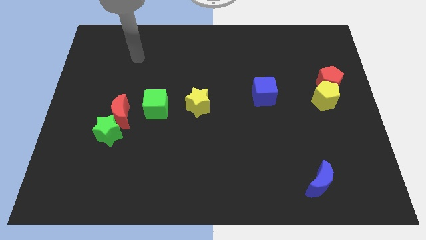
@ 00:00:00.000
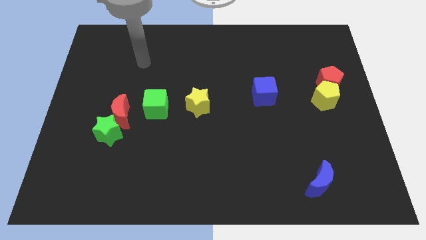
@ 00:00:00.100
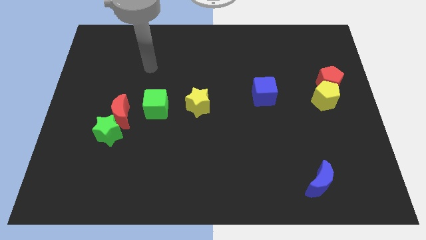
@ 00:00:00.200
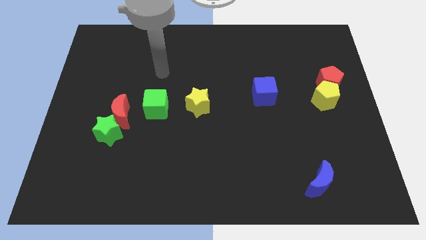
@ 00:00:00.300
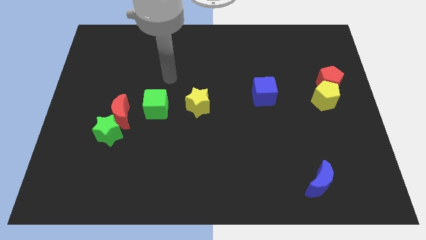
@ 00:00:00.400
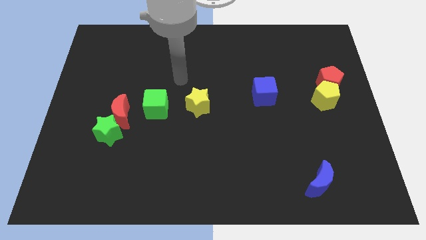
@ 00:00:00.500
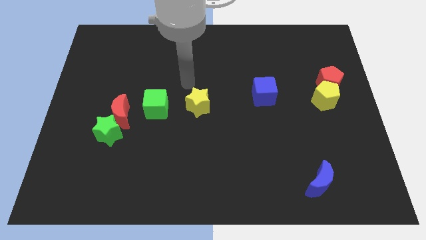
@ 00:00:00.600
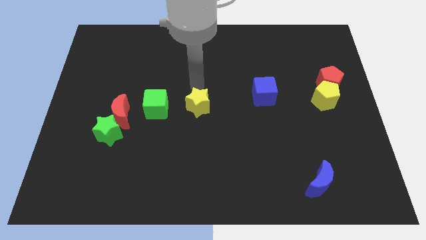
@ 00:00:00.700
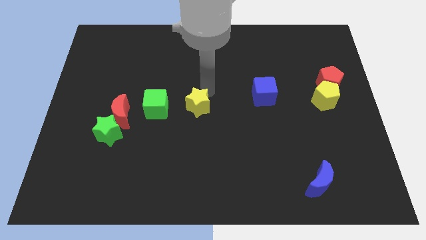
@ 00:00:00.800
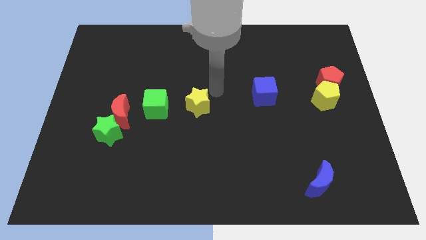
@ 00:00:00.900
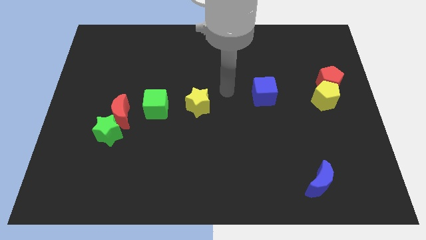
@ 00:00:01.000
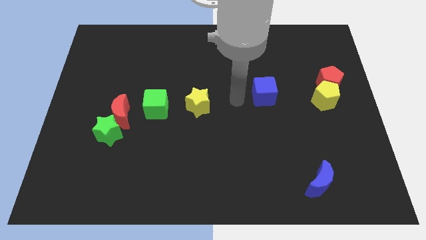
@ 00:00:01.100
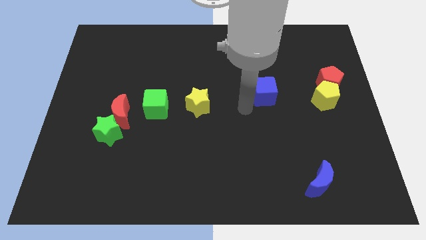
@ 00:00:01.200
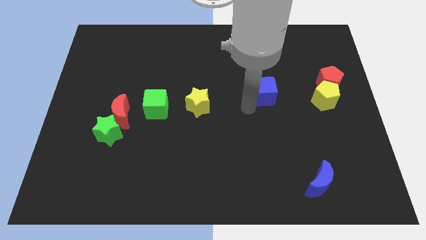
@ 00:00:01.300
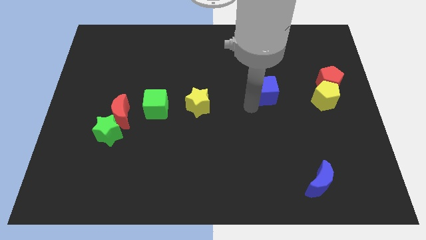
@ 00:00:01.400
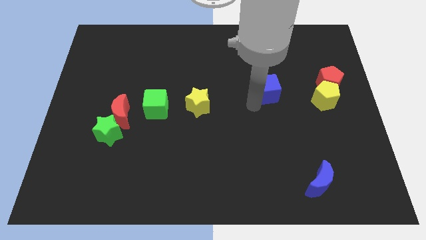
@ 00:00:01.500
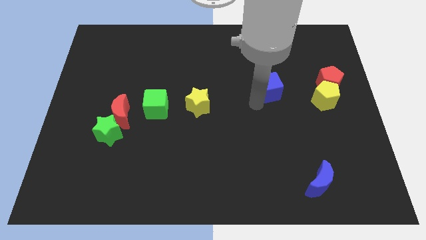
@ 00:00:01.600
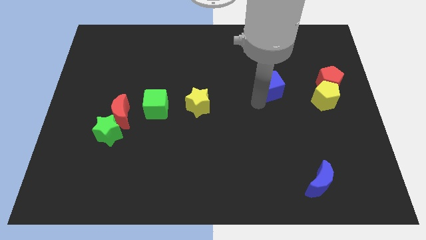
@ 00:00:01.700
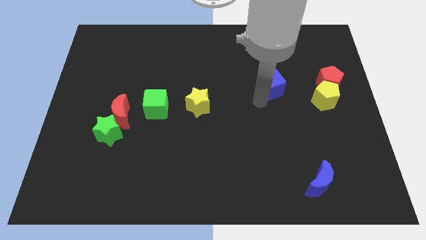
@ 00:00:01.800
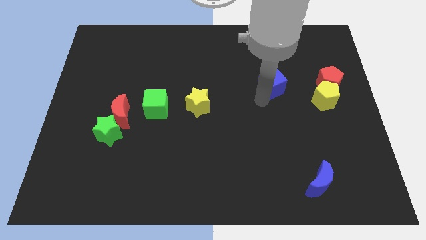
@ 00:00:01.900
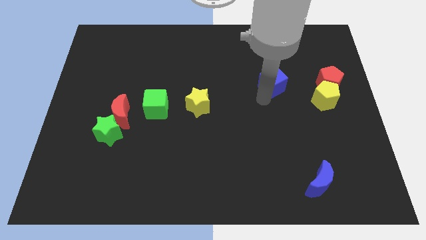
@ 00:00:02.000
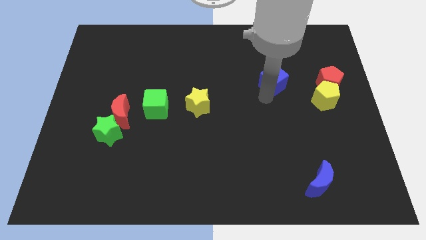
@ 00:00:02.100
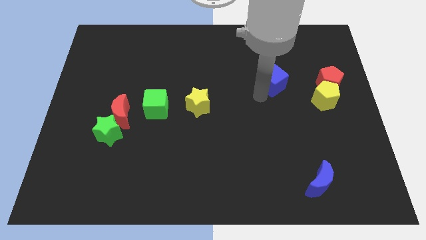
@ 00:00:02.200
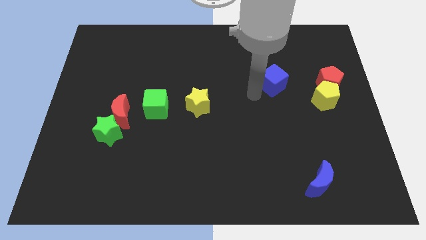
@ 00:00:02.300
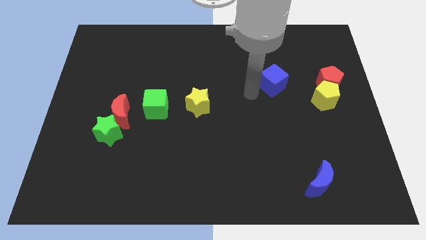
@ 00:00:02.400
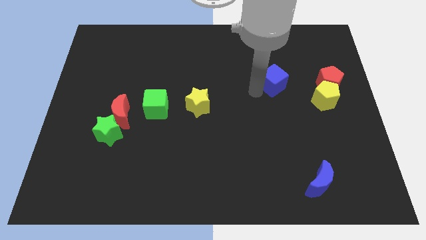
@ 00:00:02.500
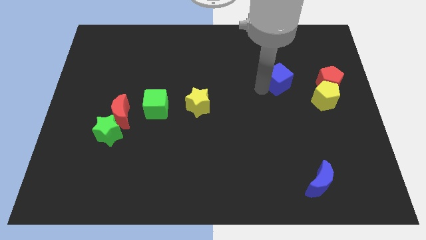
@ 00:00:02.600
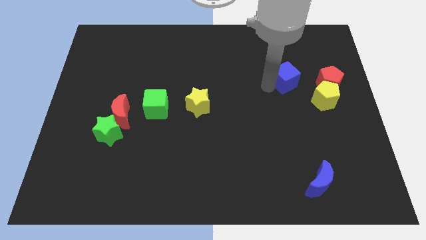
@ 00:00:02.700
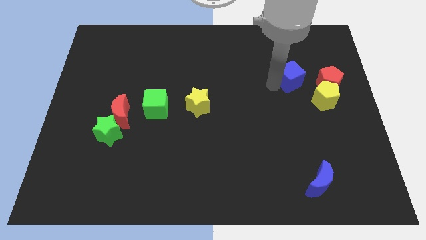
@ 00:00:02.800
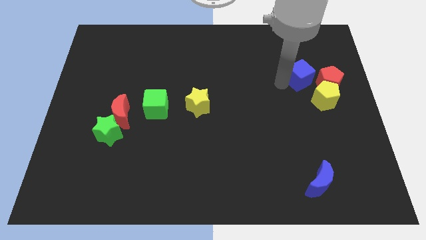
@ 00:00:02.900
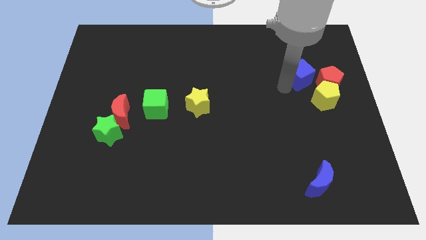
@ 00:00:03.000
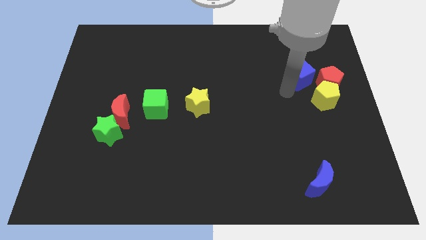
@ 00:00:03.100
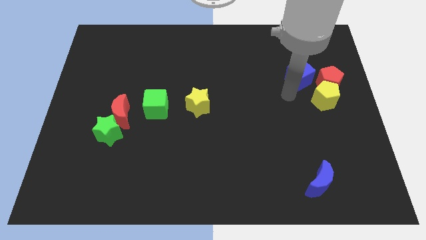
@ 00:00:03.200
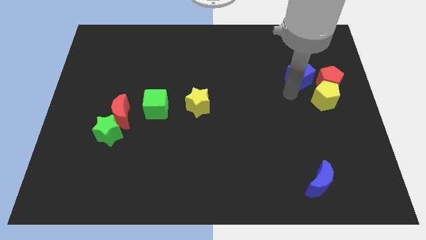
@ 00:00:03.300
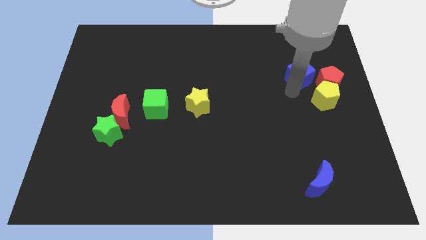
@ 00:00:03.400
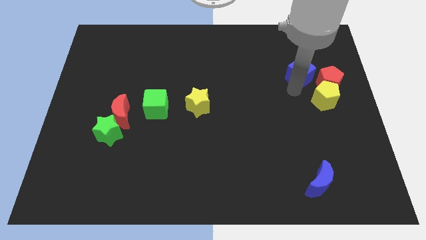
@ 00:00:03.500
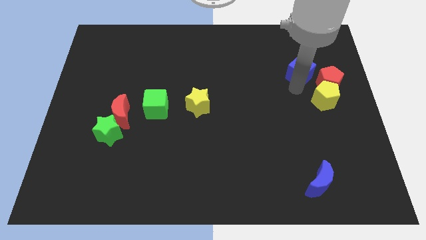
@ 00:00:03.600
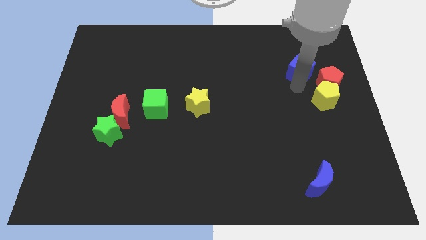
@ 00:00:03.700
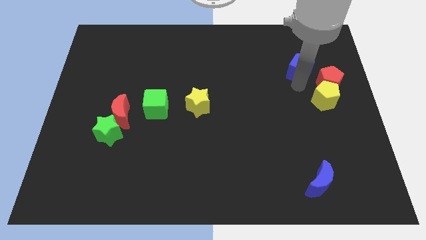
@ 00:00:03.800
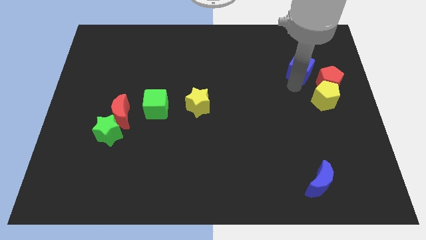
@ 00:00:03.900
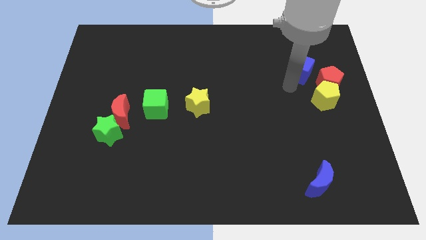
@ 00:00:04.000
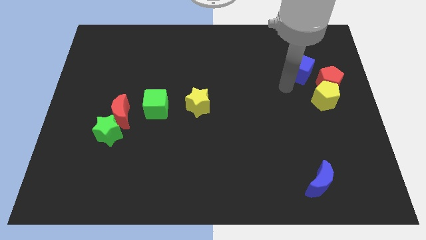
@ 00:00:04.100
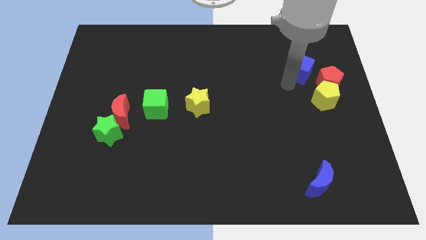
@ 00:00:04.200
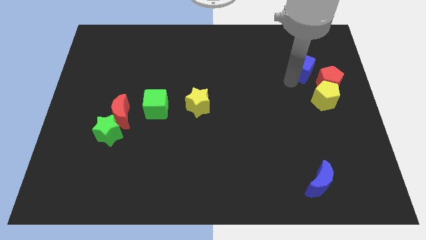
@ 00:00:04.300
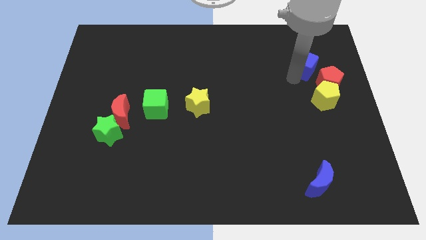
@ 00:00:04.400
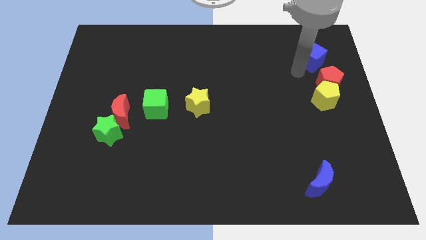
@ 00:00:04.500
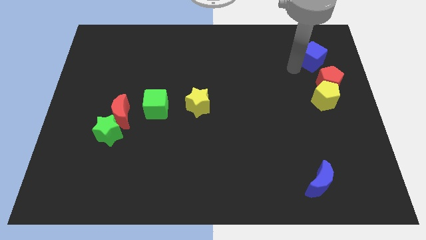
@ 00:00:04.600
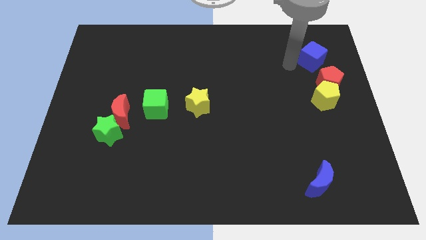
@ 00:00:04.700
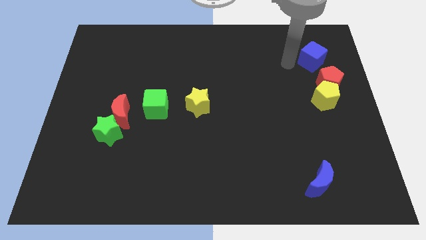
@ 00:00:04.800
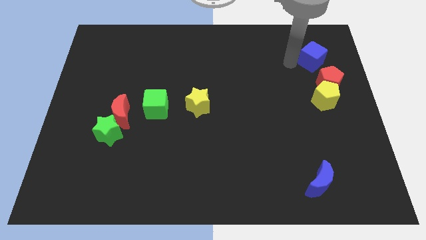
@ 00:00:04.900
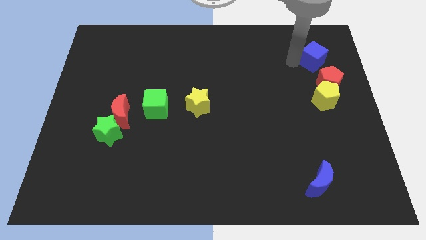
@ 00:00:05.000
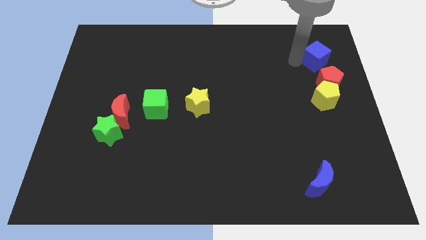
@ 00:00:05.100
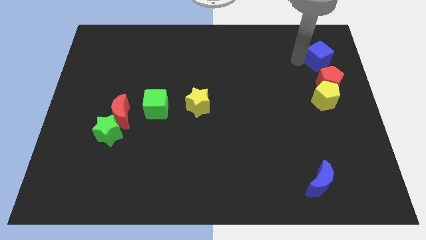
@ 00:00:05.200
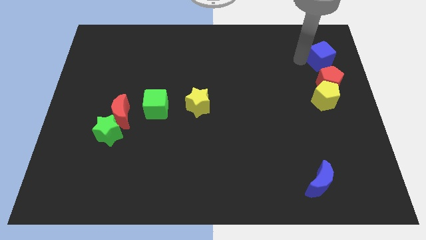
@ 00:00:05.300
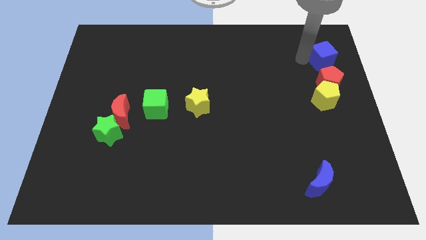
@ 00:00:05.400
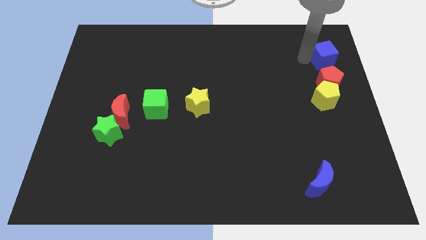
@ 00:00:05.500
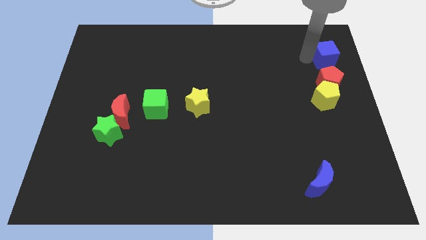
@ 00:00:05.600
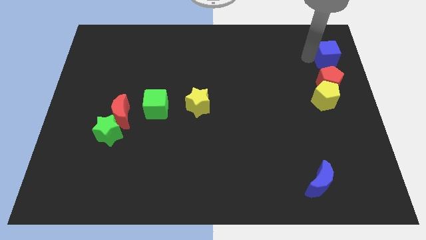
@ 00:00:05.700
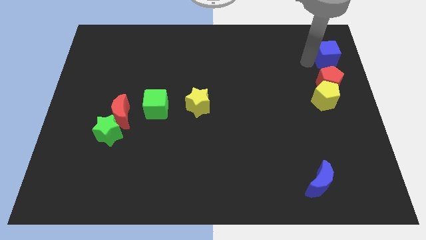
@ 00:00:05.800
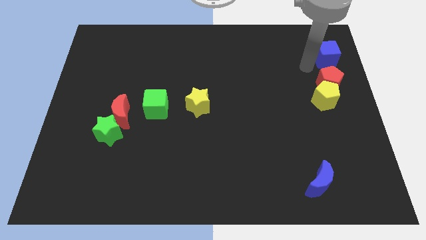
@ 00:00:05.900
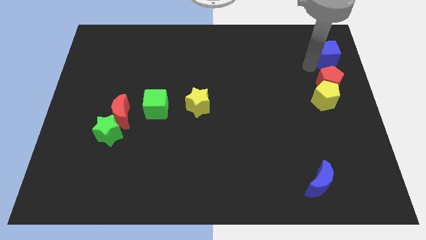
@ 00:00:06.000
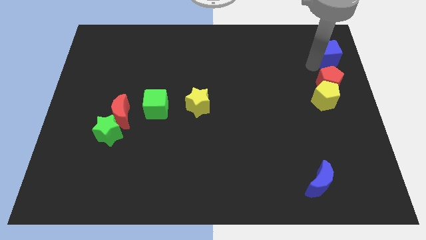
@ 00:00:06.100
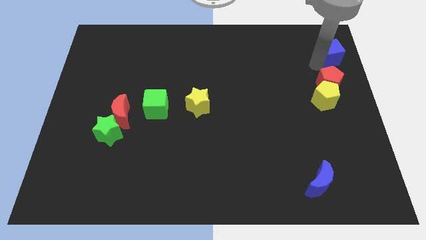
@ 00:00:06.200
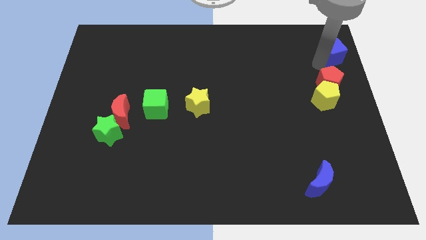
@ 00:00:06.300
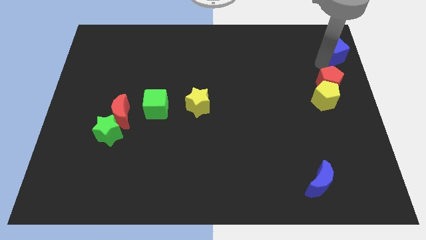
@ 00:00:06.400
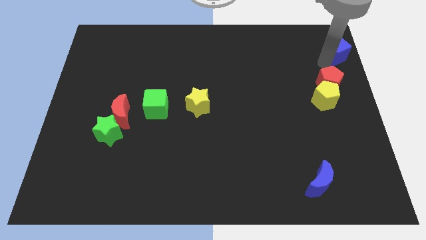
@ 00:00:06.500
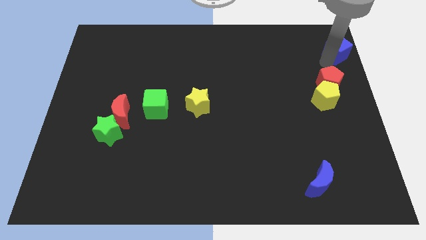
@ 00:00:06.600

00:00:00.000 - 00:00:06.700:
push the blue cube to the top right corner
